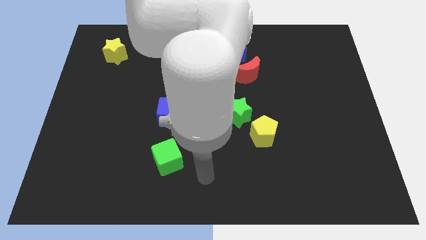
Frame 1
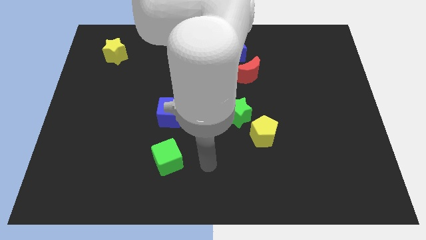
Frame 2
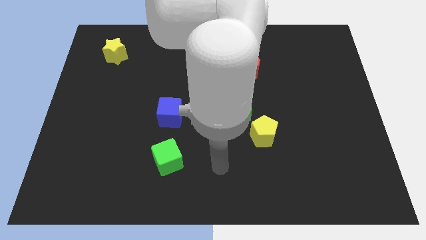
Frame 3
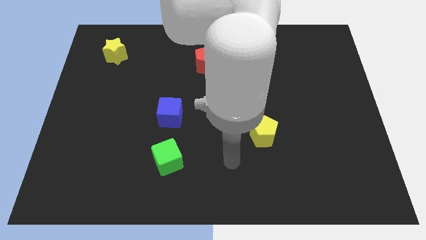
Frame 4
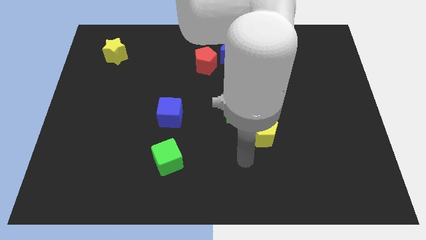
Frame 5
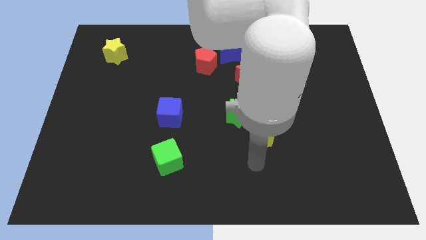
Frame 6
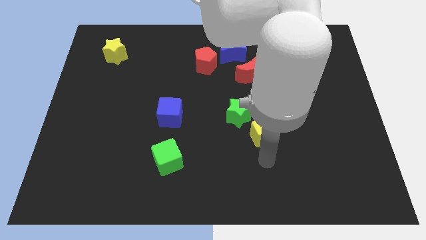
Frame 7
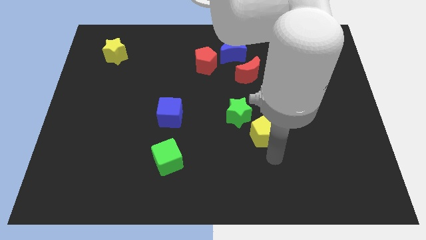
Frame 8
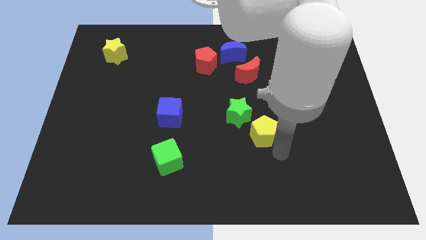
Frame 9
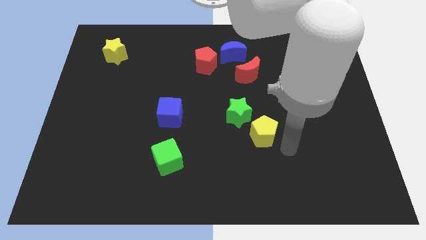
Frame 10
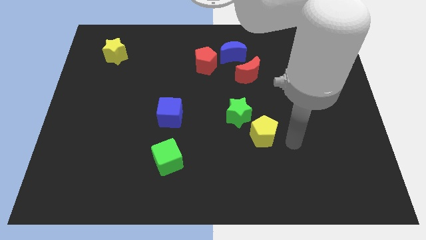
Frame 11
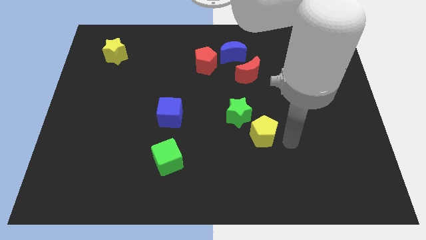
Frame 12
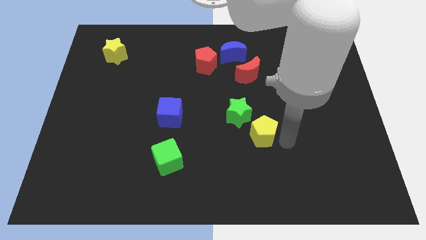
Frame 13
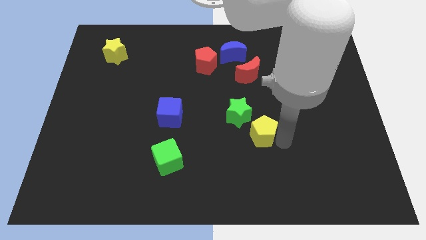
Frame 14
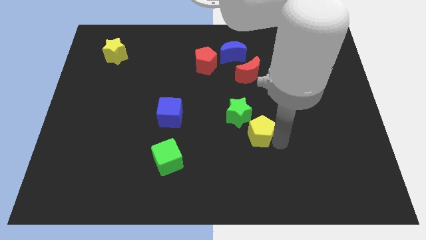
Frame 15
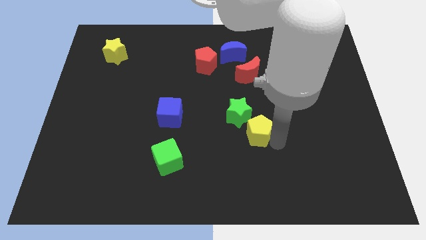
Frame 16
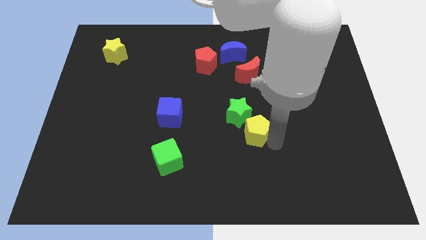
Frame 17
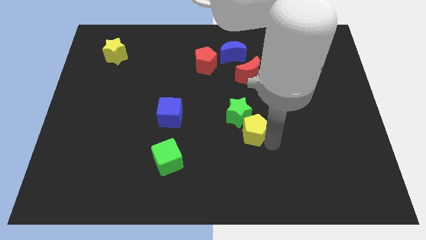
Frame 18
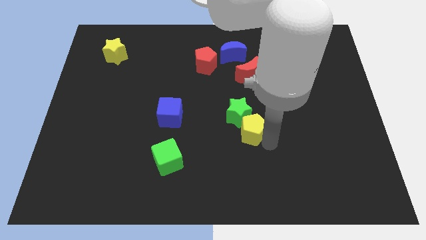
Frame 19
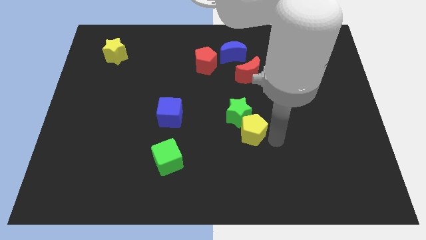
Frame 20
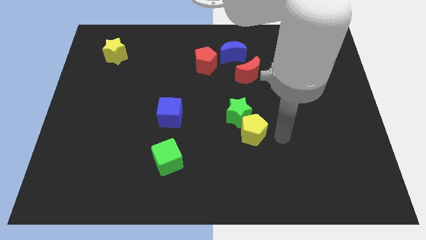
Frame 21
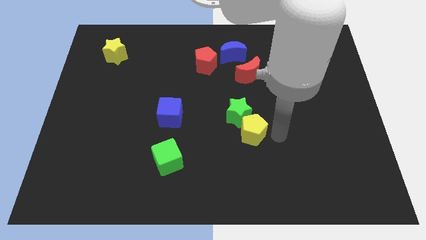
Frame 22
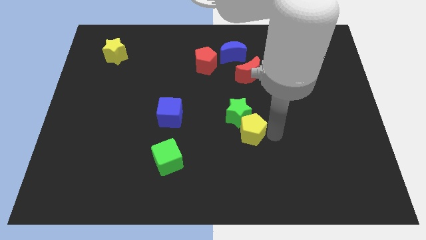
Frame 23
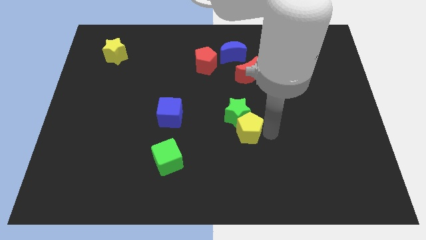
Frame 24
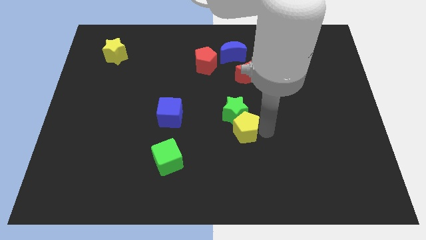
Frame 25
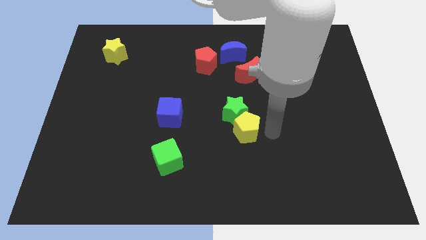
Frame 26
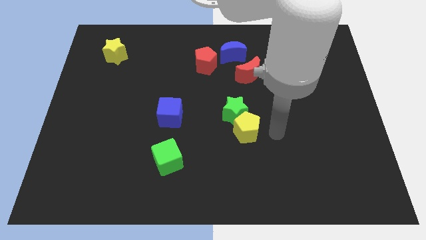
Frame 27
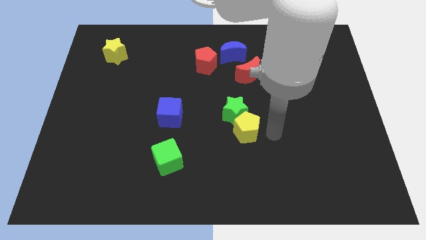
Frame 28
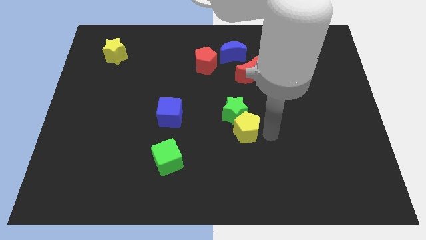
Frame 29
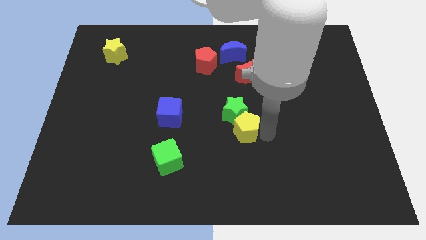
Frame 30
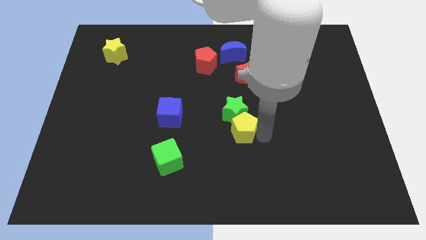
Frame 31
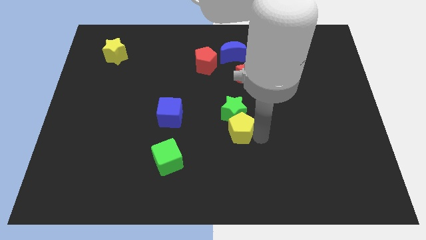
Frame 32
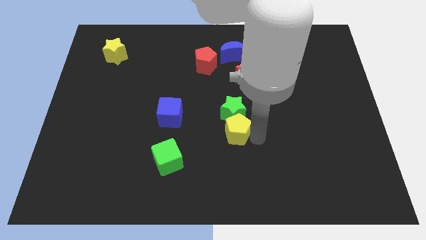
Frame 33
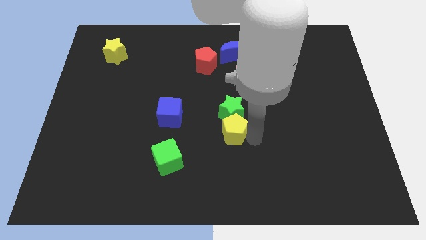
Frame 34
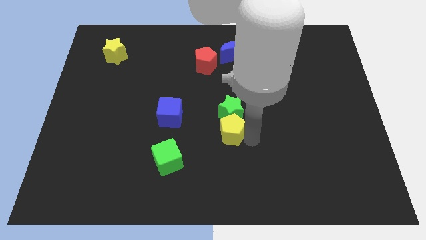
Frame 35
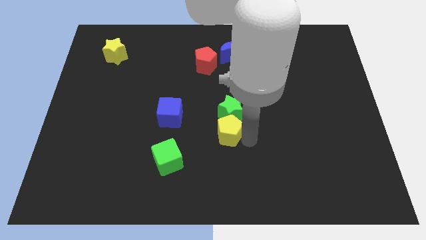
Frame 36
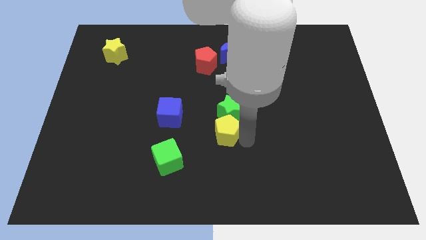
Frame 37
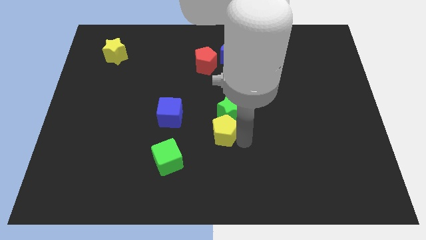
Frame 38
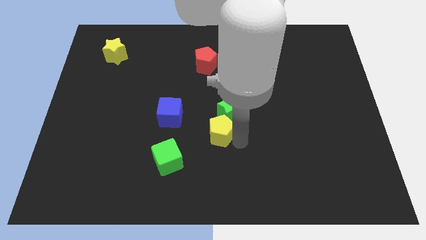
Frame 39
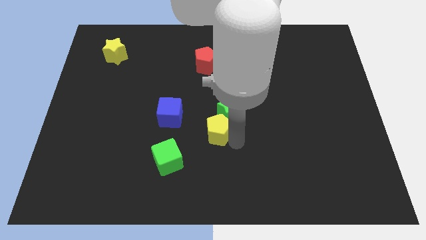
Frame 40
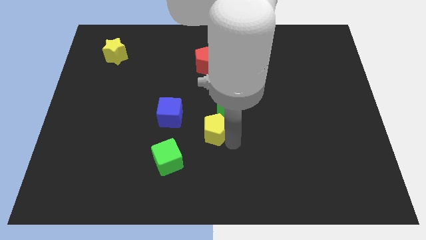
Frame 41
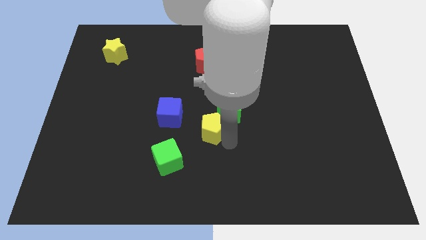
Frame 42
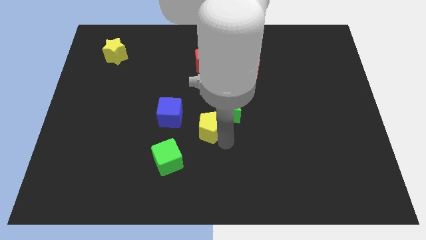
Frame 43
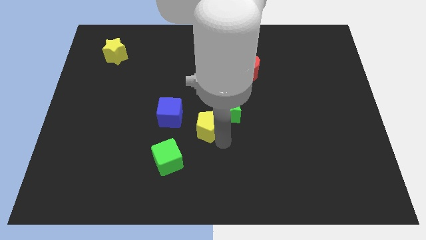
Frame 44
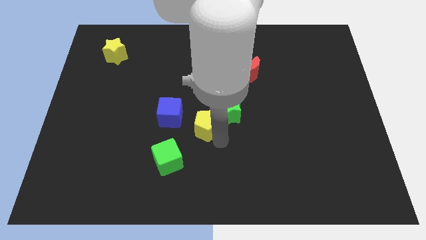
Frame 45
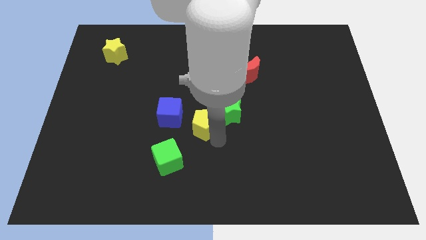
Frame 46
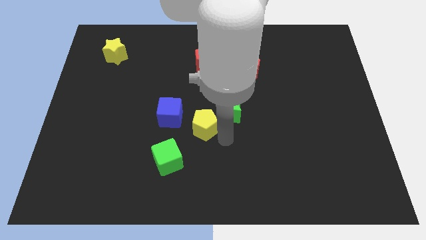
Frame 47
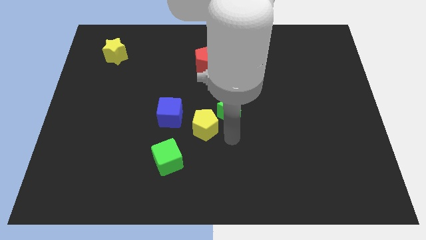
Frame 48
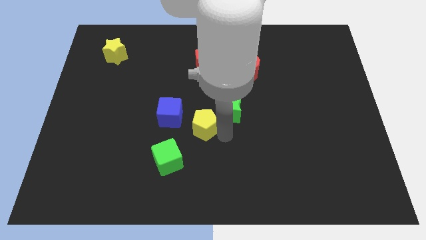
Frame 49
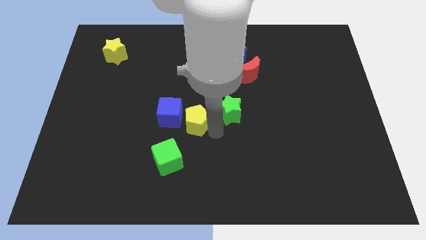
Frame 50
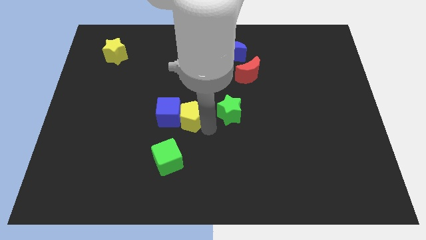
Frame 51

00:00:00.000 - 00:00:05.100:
move the yellow pentagon next to the blue cube

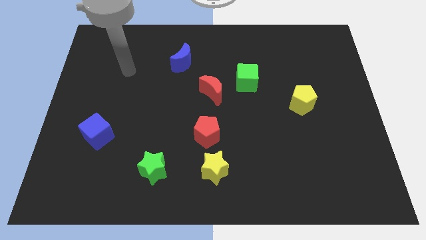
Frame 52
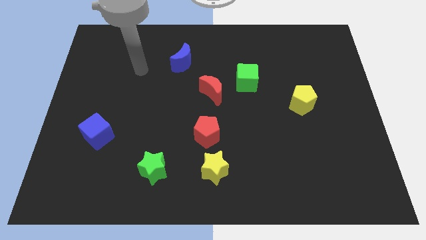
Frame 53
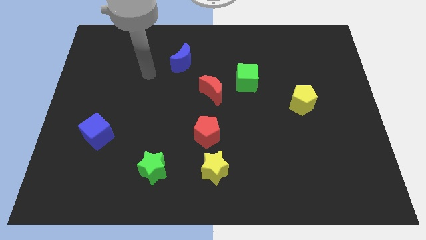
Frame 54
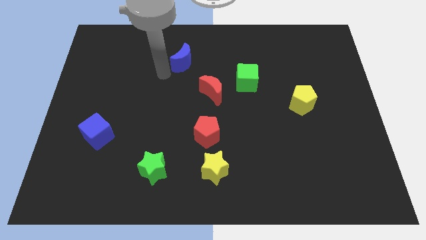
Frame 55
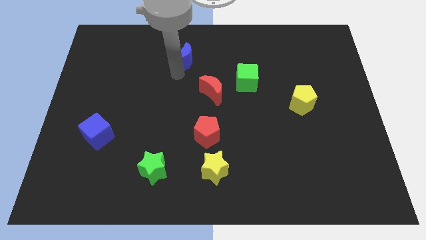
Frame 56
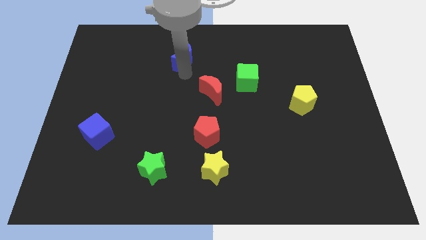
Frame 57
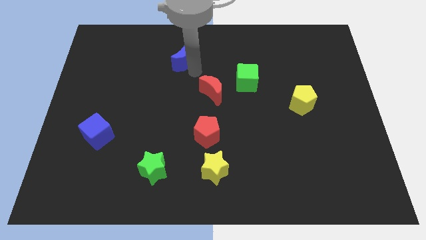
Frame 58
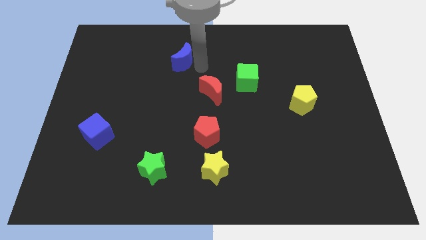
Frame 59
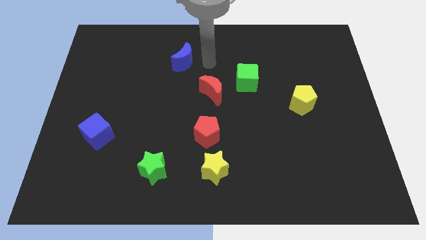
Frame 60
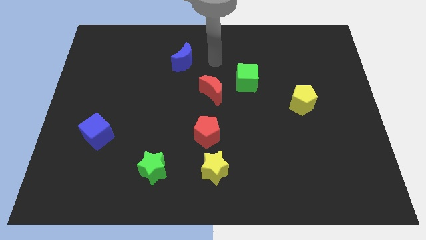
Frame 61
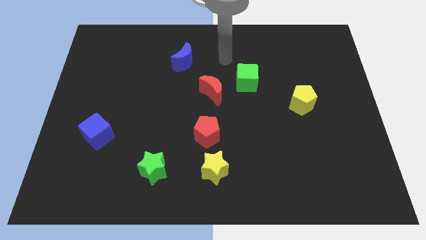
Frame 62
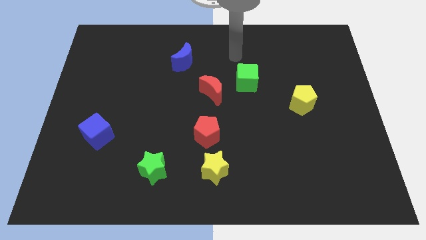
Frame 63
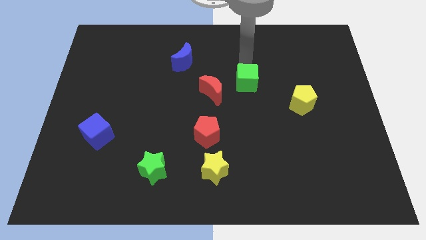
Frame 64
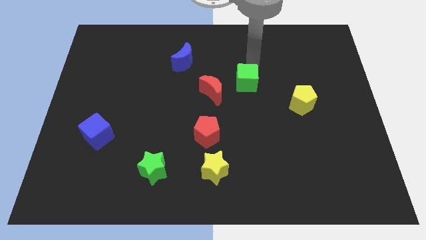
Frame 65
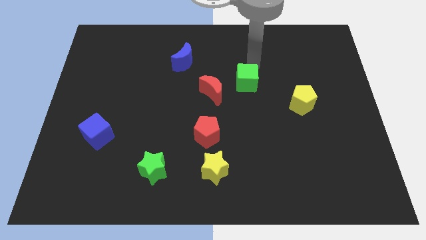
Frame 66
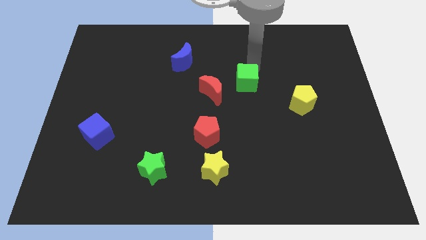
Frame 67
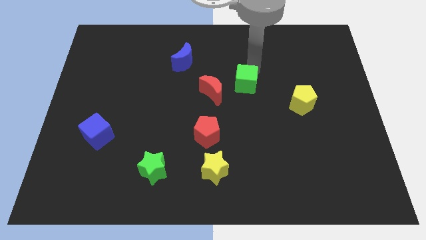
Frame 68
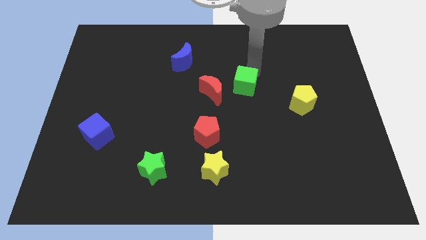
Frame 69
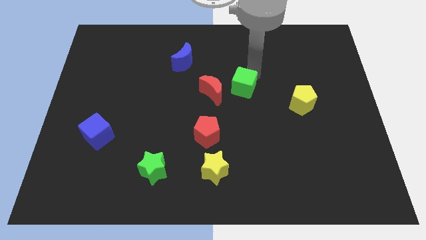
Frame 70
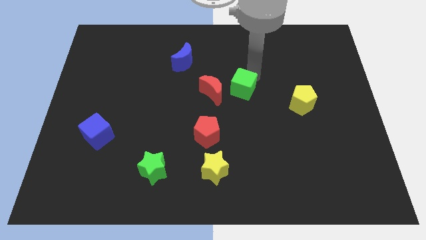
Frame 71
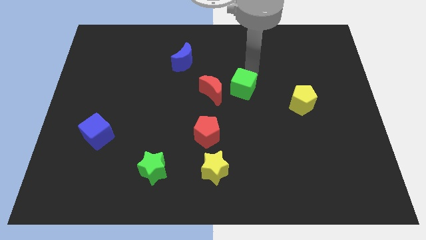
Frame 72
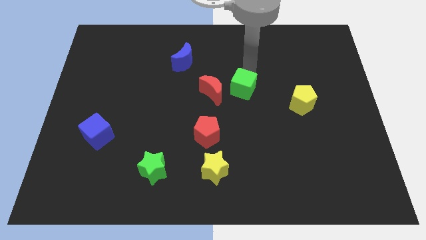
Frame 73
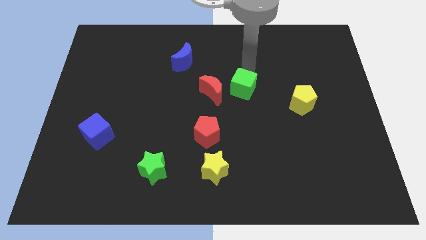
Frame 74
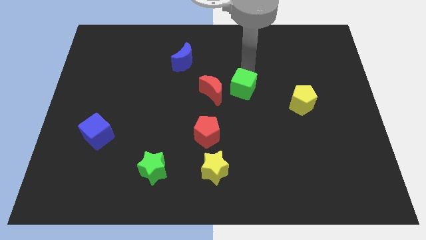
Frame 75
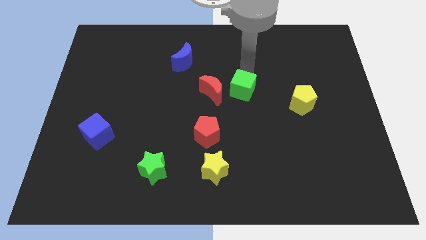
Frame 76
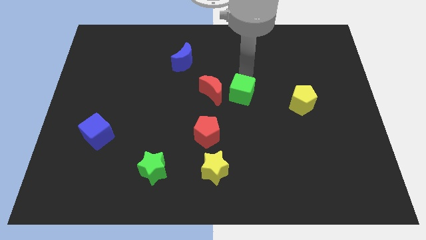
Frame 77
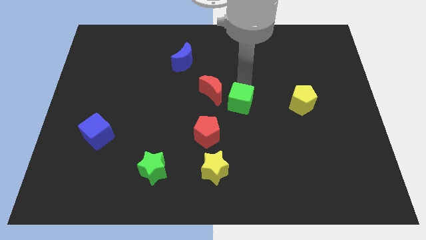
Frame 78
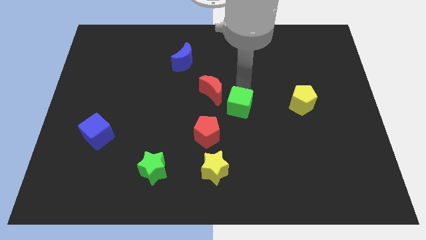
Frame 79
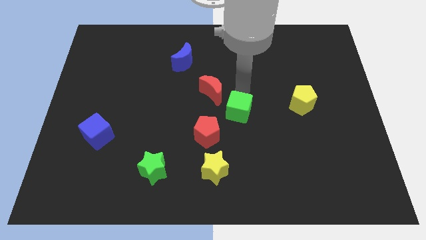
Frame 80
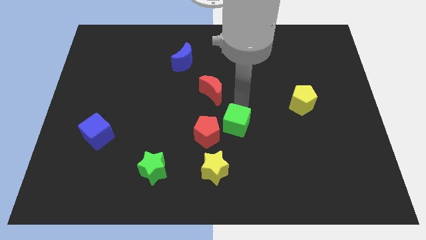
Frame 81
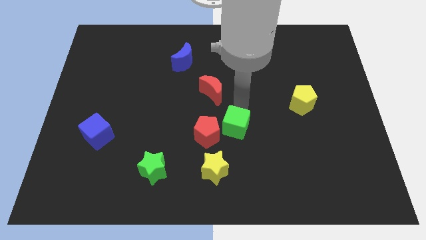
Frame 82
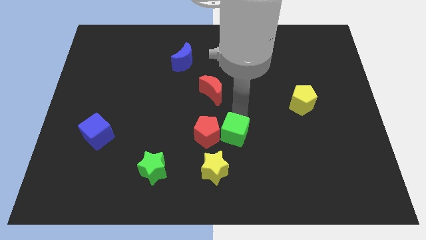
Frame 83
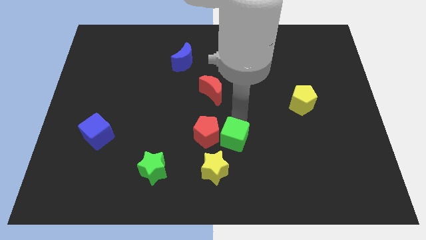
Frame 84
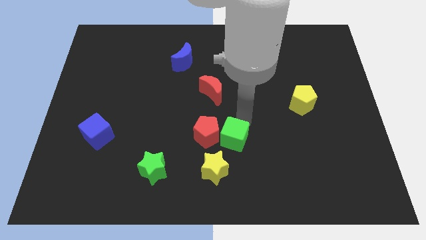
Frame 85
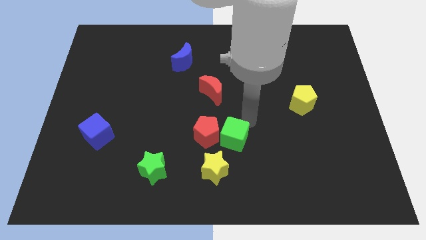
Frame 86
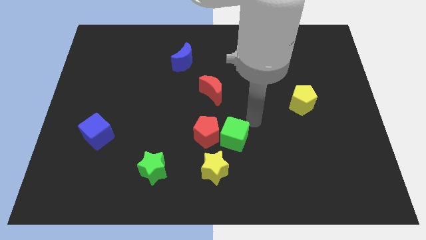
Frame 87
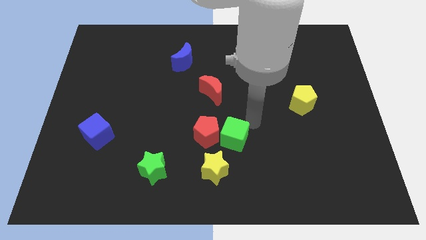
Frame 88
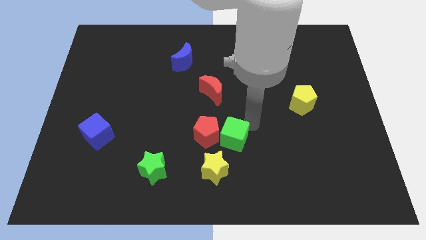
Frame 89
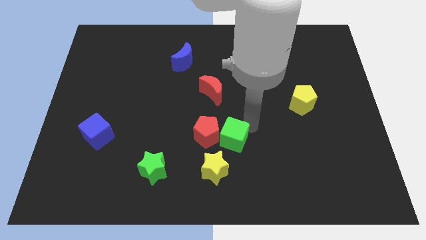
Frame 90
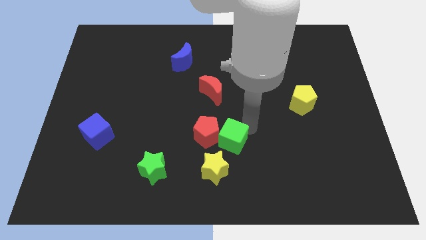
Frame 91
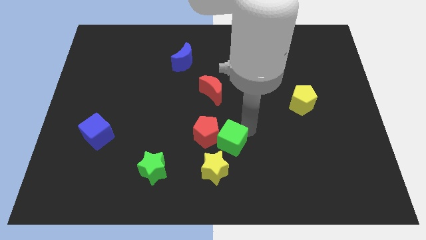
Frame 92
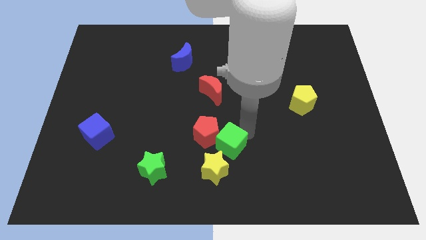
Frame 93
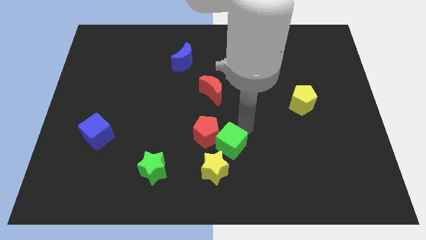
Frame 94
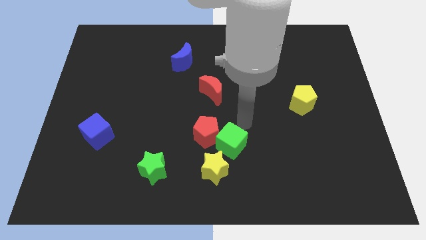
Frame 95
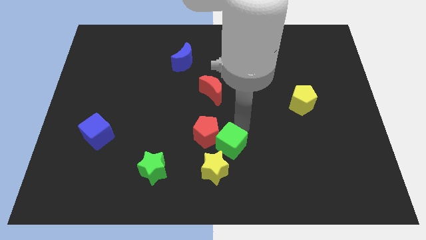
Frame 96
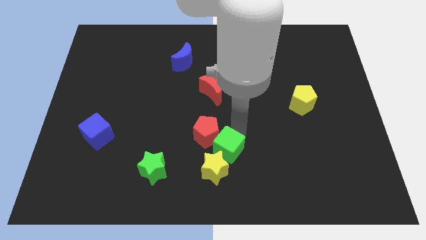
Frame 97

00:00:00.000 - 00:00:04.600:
push the green cube to the yellow star
